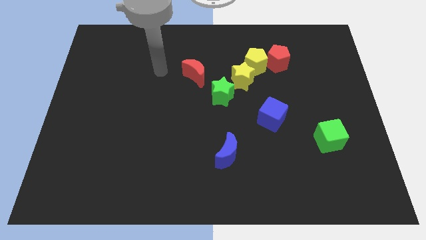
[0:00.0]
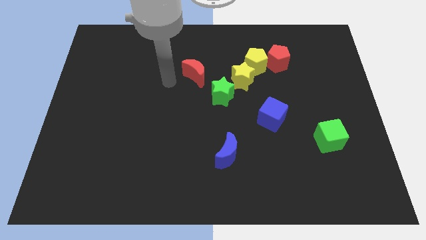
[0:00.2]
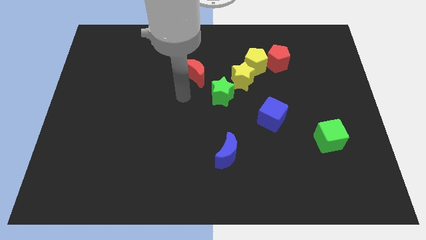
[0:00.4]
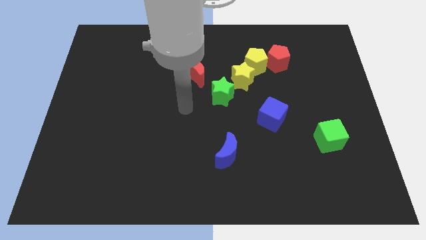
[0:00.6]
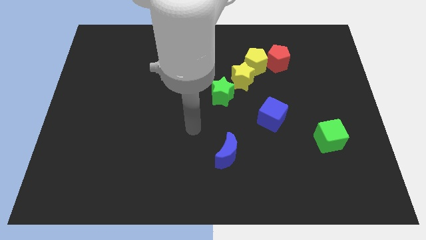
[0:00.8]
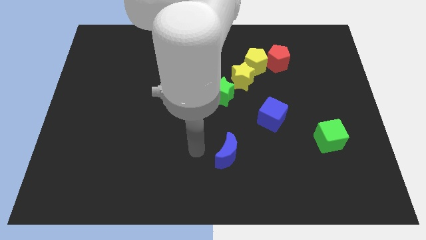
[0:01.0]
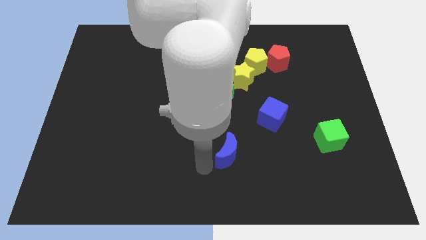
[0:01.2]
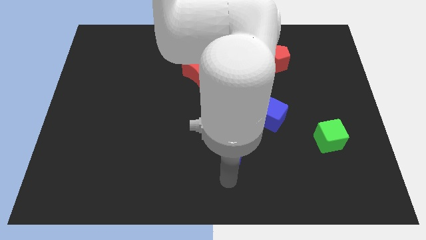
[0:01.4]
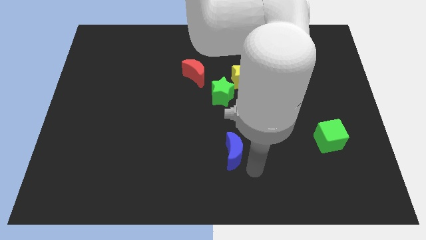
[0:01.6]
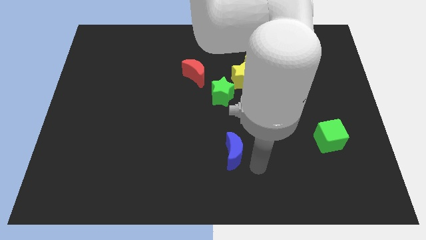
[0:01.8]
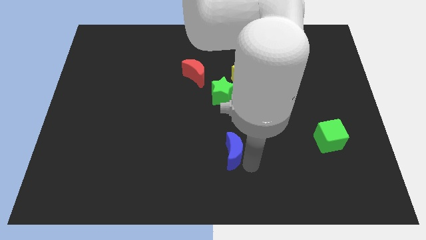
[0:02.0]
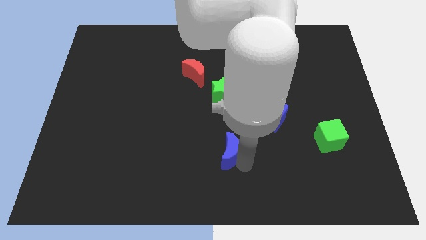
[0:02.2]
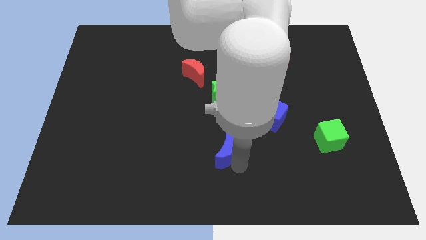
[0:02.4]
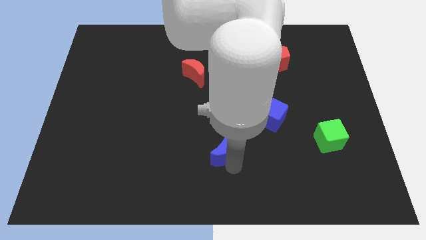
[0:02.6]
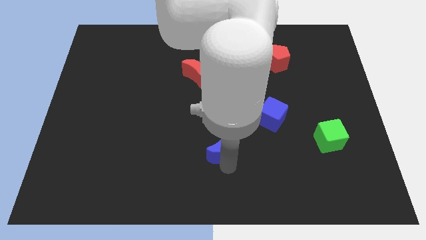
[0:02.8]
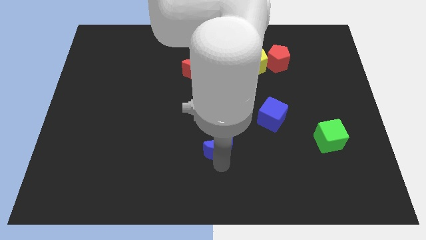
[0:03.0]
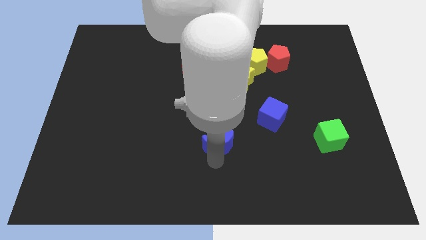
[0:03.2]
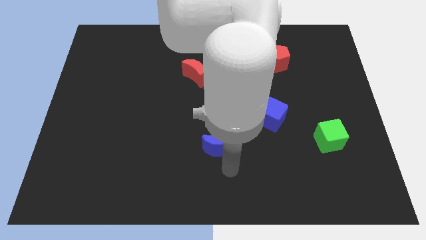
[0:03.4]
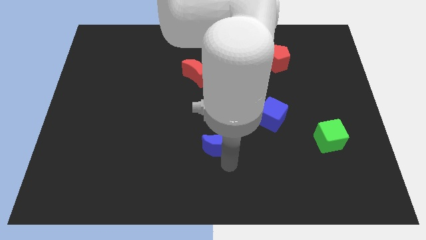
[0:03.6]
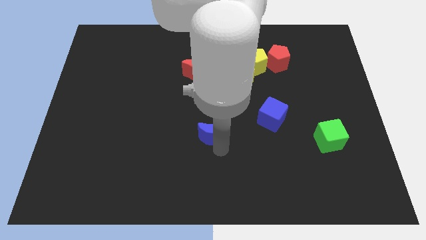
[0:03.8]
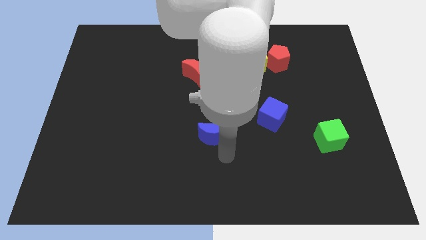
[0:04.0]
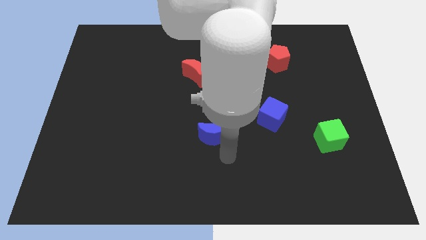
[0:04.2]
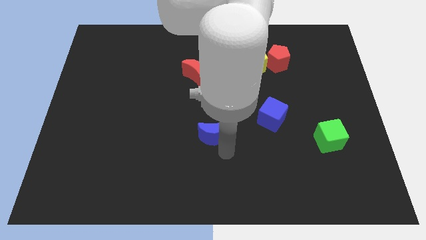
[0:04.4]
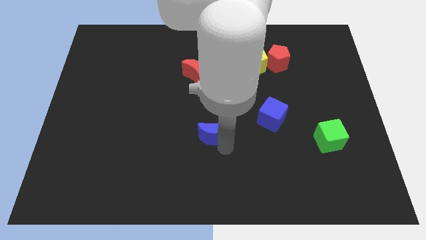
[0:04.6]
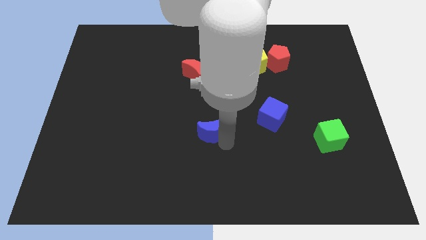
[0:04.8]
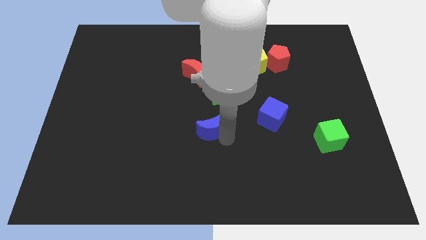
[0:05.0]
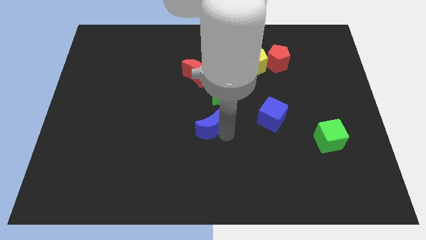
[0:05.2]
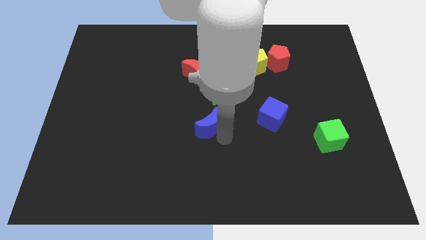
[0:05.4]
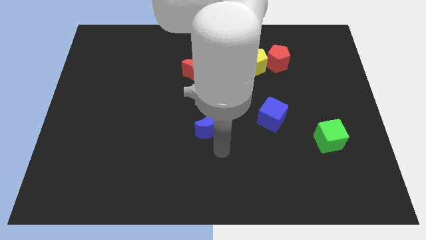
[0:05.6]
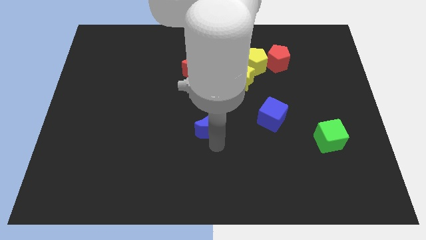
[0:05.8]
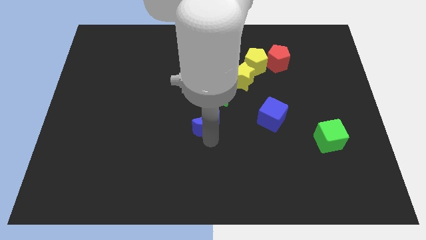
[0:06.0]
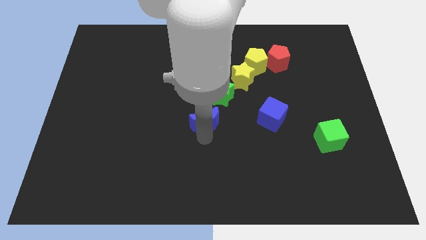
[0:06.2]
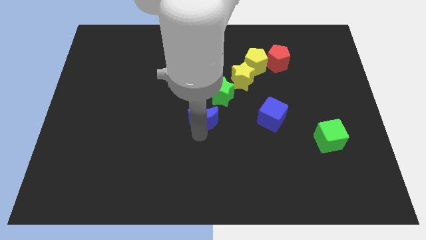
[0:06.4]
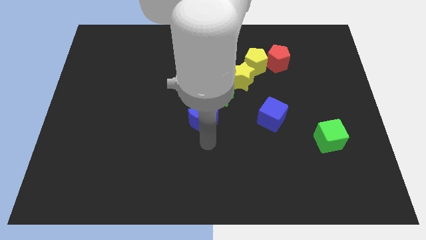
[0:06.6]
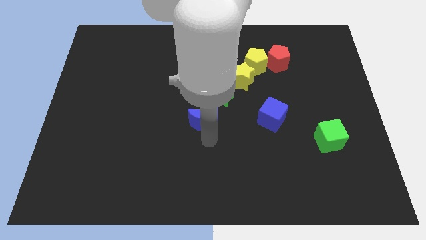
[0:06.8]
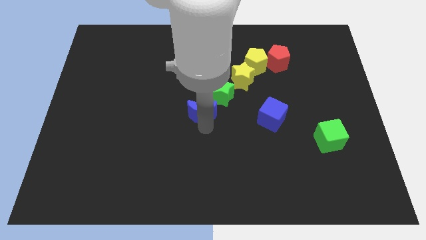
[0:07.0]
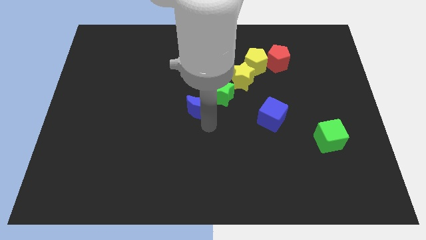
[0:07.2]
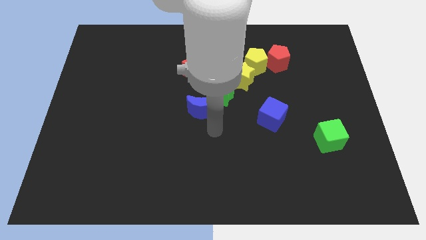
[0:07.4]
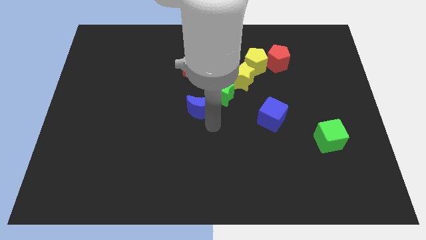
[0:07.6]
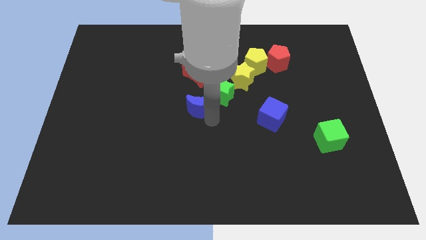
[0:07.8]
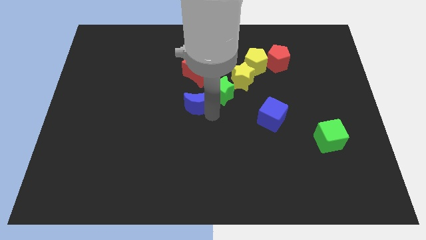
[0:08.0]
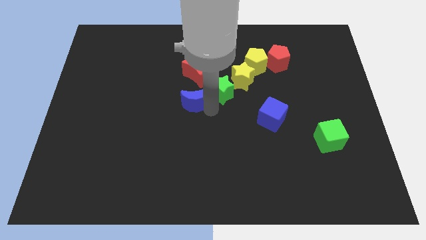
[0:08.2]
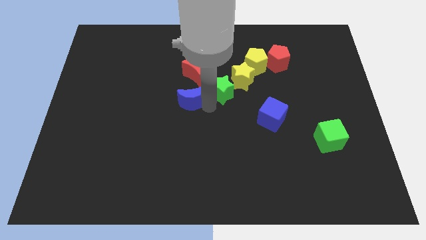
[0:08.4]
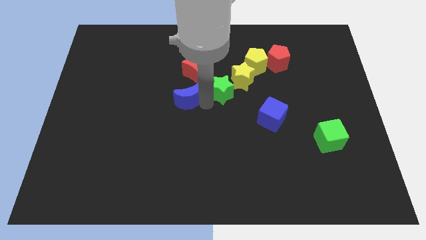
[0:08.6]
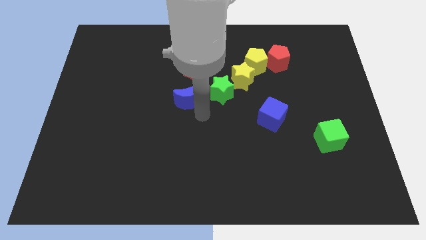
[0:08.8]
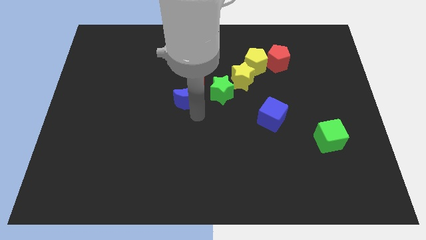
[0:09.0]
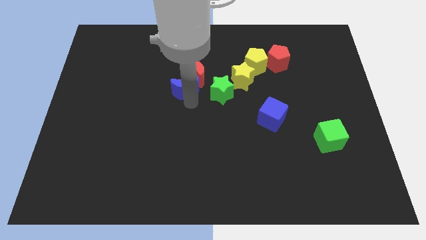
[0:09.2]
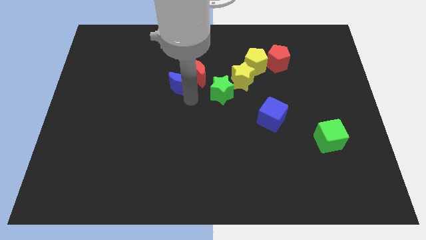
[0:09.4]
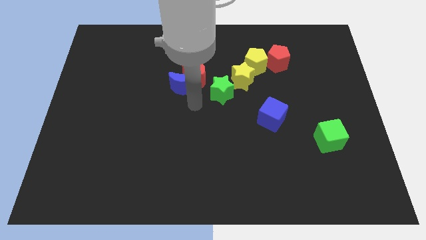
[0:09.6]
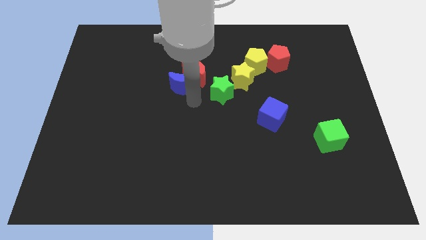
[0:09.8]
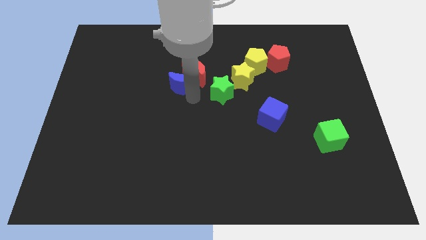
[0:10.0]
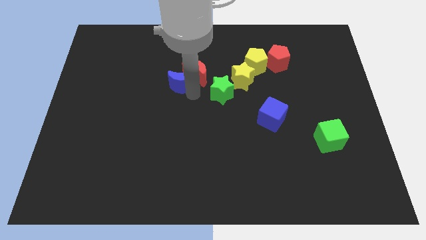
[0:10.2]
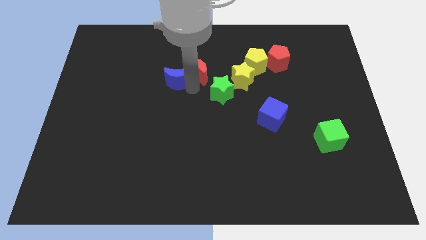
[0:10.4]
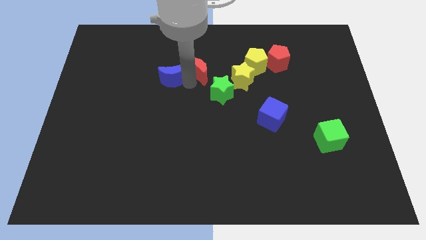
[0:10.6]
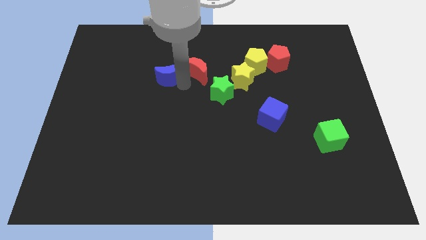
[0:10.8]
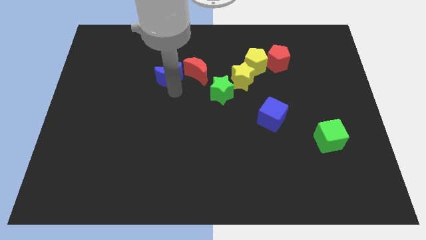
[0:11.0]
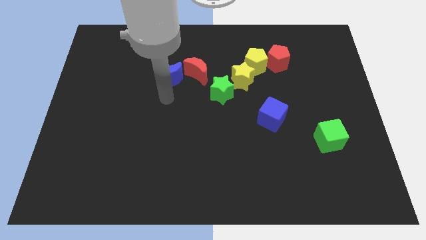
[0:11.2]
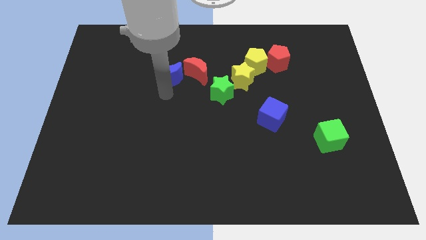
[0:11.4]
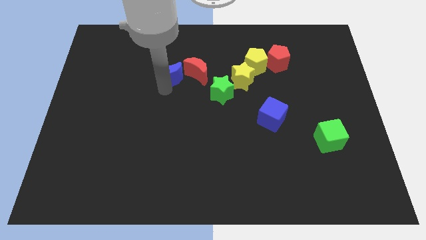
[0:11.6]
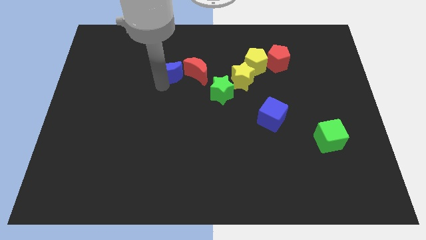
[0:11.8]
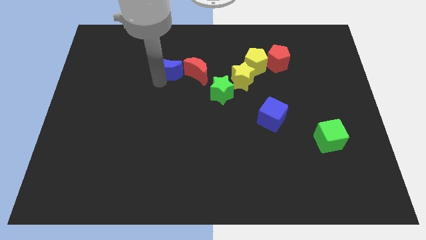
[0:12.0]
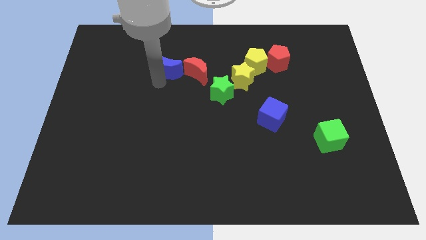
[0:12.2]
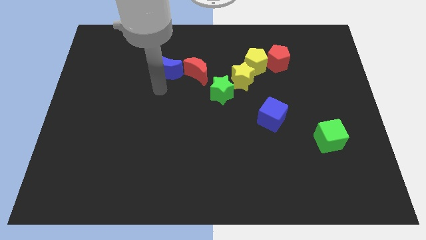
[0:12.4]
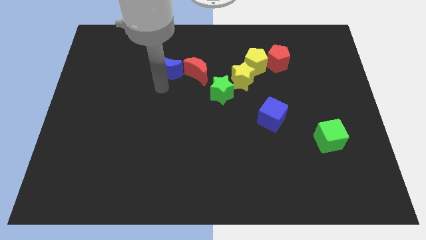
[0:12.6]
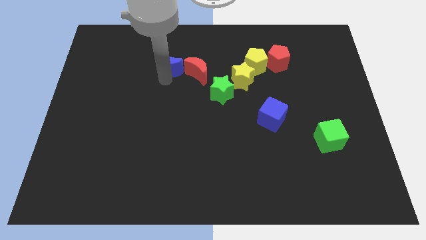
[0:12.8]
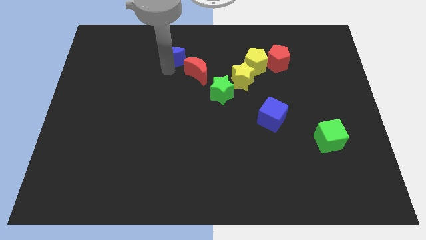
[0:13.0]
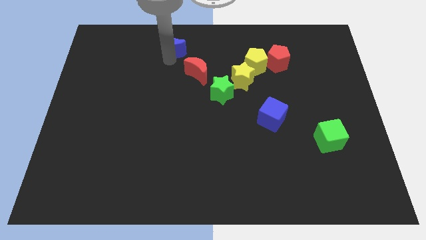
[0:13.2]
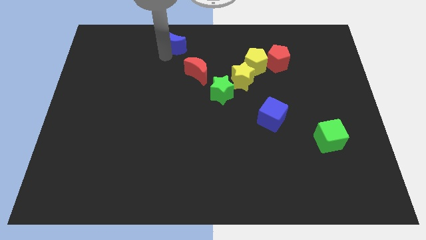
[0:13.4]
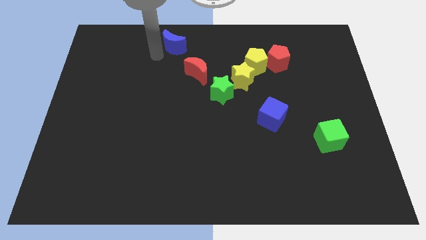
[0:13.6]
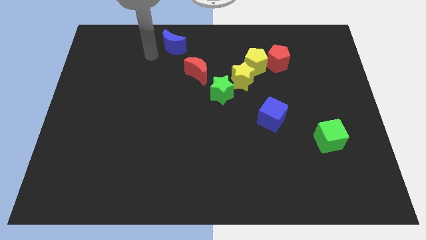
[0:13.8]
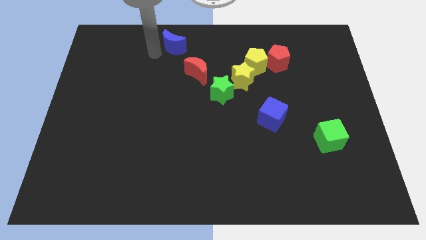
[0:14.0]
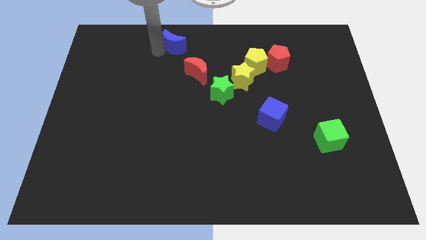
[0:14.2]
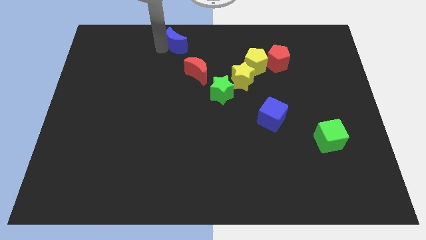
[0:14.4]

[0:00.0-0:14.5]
push the blue moon to the top side
